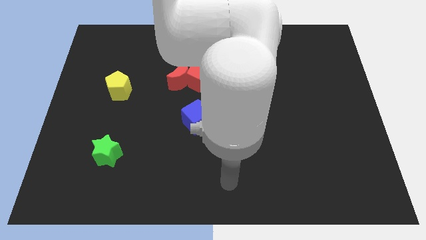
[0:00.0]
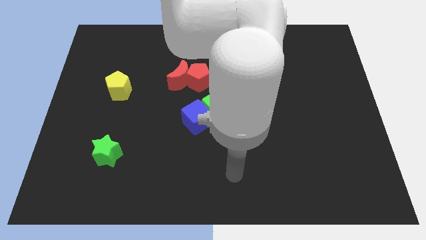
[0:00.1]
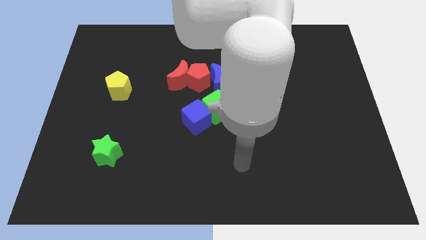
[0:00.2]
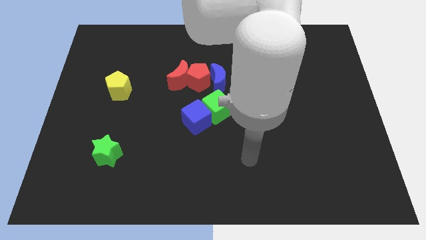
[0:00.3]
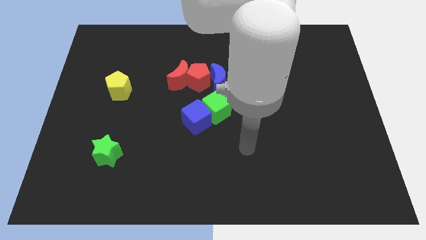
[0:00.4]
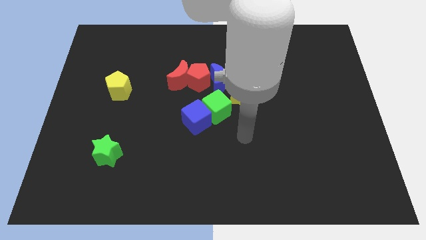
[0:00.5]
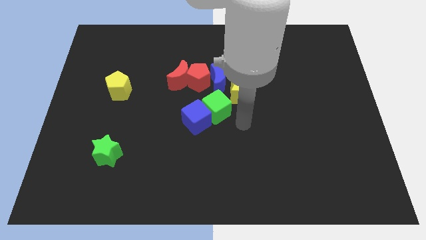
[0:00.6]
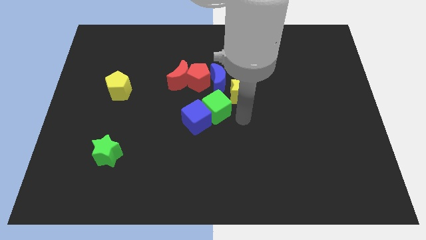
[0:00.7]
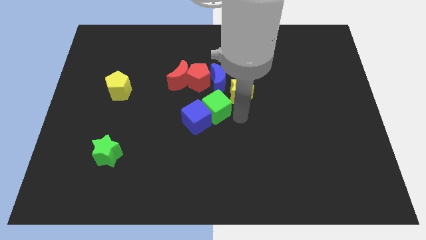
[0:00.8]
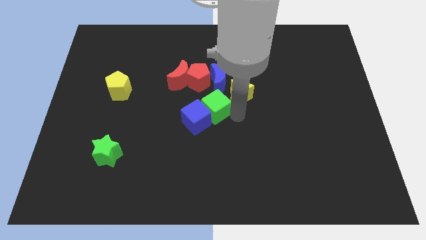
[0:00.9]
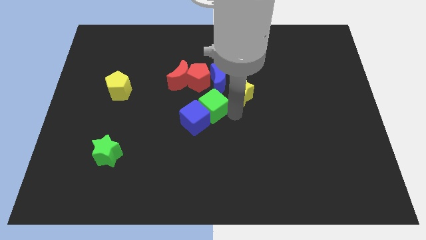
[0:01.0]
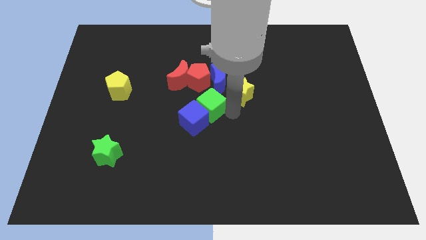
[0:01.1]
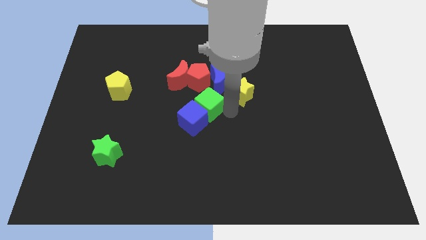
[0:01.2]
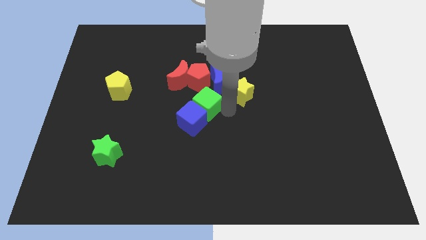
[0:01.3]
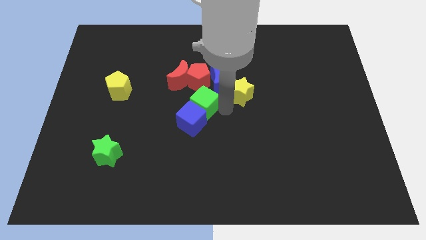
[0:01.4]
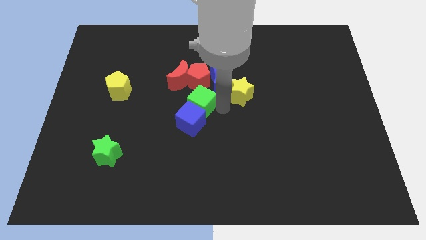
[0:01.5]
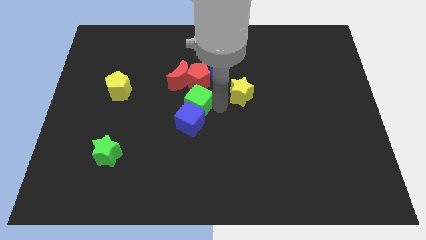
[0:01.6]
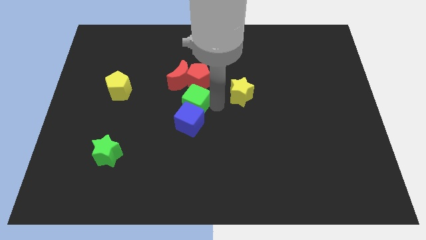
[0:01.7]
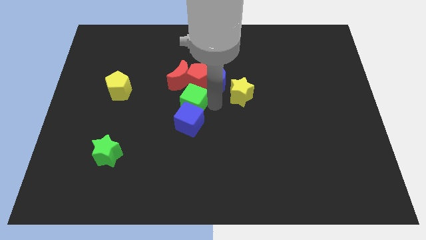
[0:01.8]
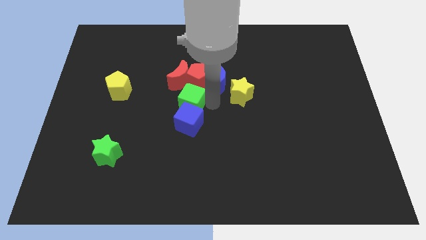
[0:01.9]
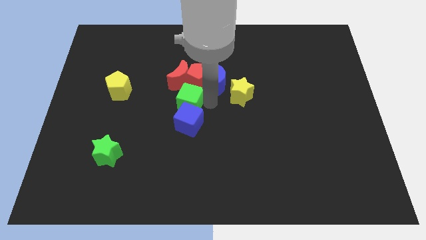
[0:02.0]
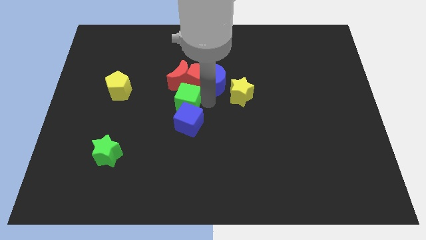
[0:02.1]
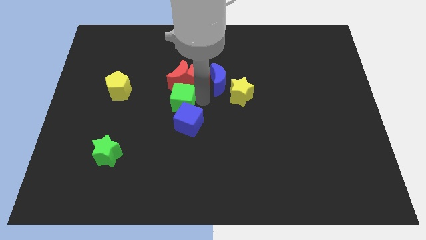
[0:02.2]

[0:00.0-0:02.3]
push the green cube a bit to the left

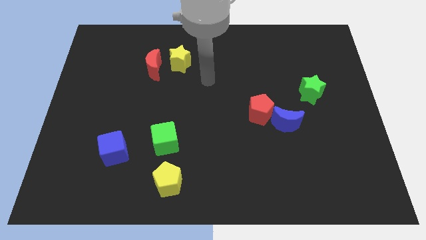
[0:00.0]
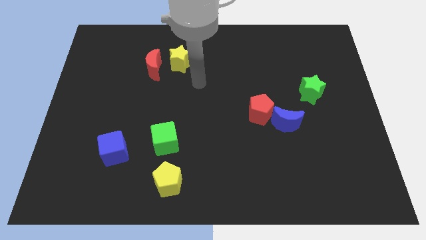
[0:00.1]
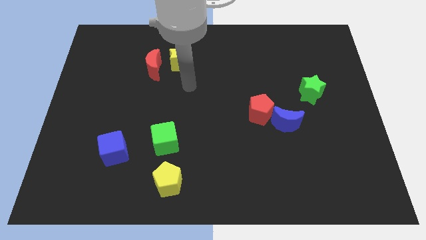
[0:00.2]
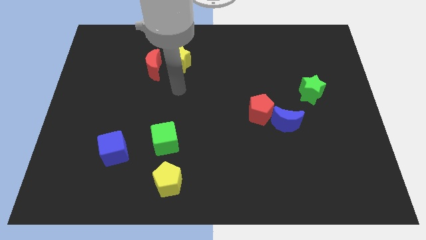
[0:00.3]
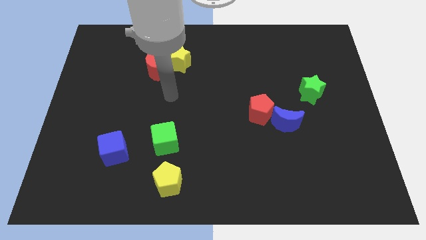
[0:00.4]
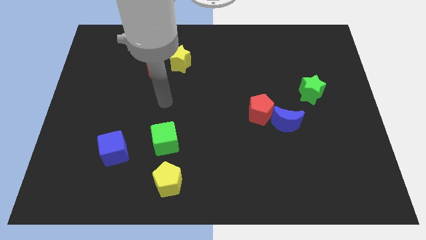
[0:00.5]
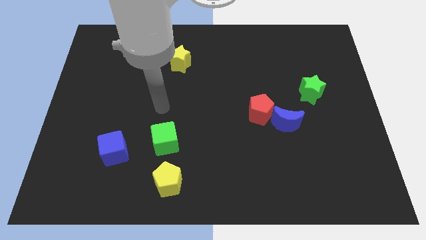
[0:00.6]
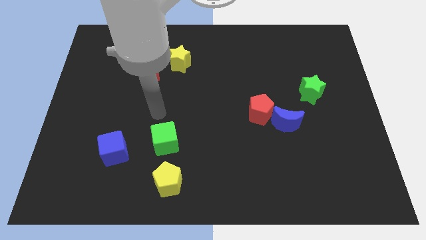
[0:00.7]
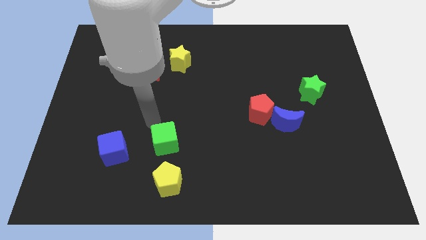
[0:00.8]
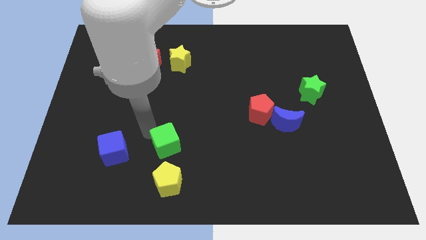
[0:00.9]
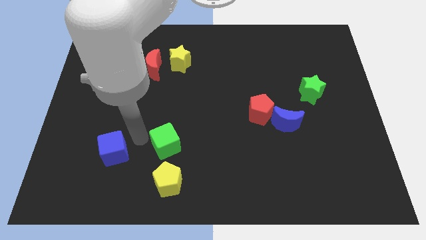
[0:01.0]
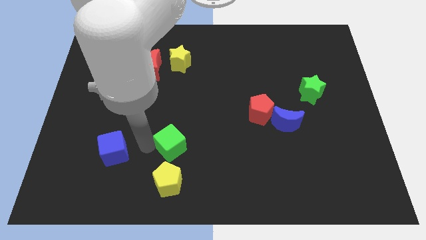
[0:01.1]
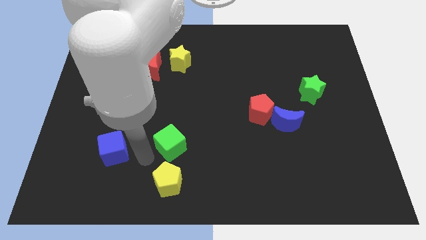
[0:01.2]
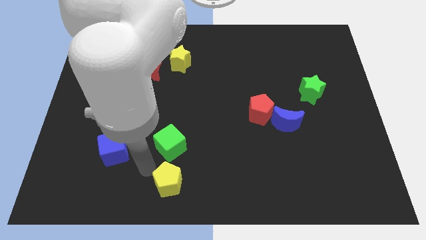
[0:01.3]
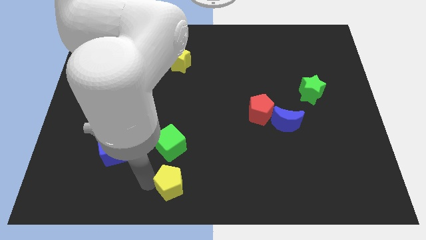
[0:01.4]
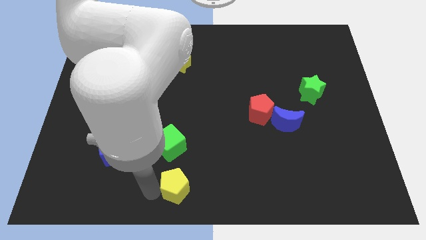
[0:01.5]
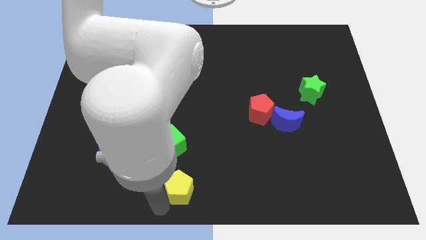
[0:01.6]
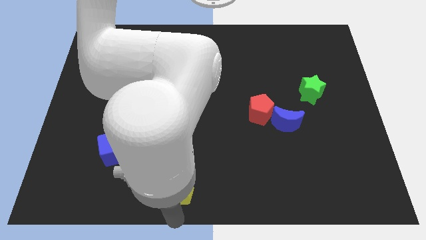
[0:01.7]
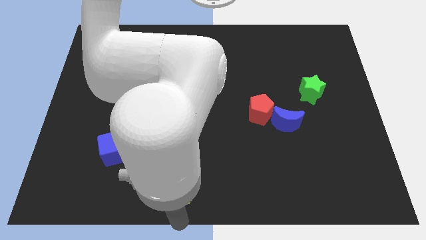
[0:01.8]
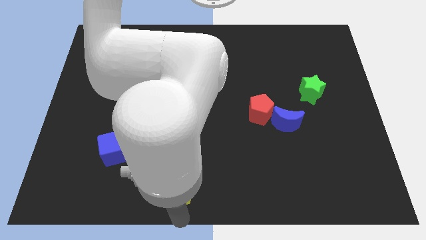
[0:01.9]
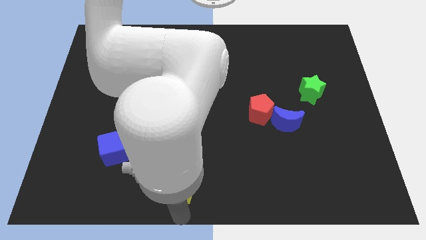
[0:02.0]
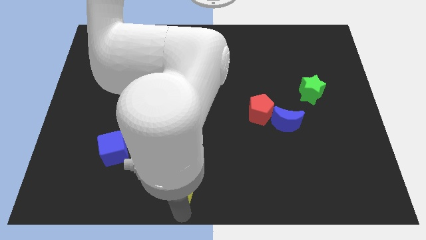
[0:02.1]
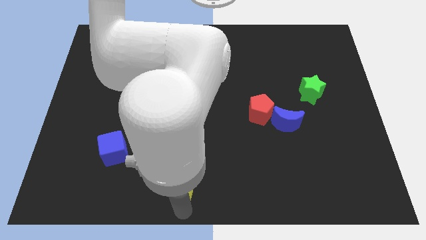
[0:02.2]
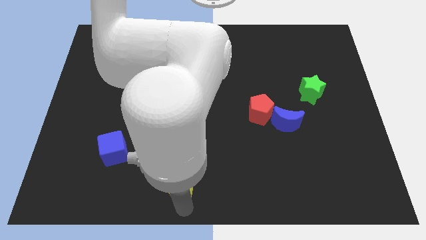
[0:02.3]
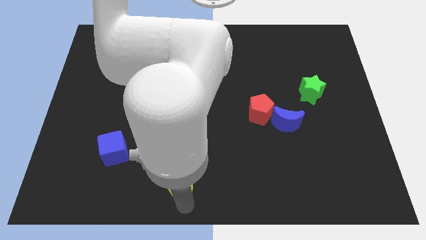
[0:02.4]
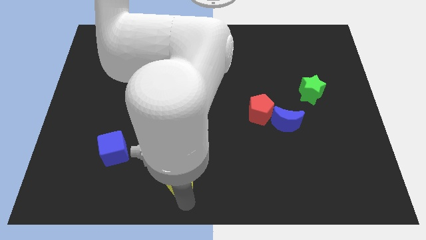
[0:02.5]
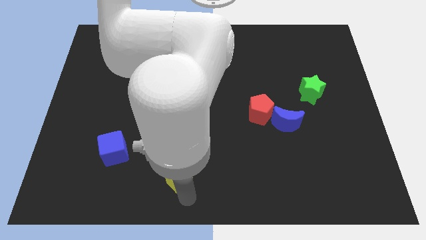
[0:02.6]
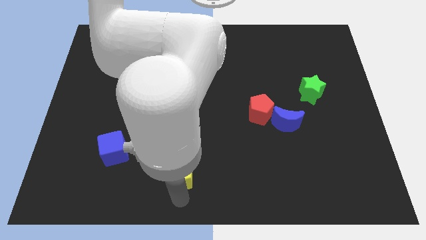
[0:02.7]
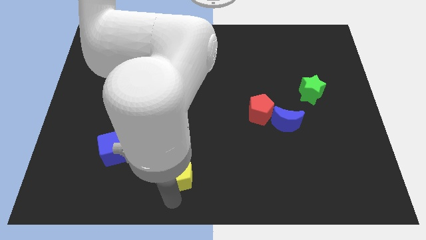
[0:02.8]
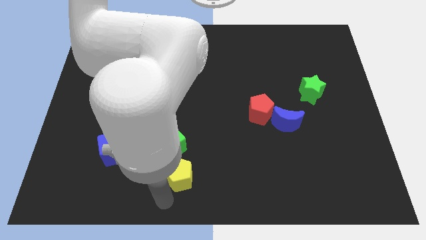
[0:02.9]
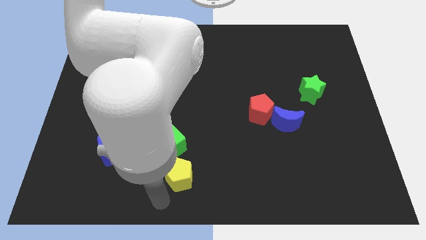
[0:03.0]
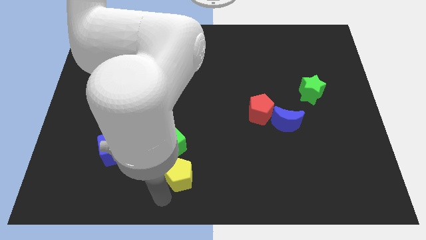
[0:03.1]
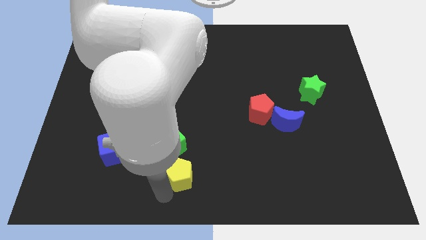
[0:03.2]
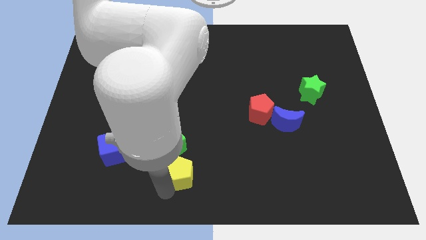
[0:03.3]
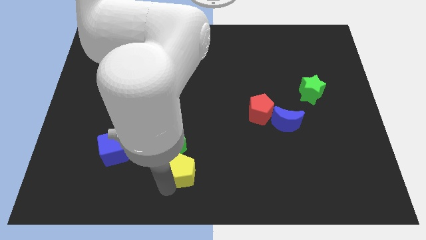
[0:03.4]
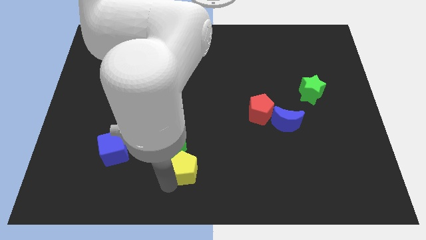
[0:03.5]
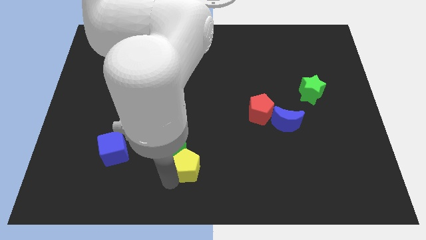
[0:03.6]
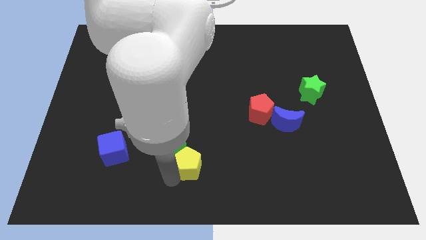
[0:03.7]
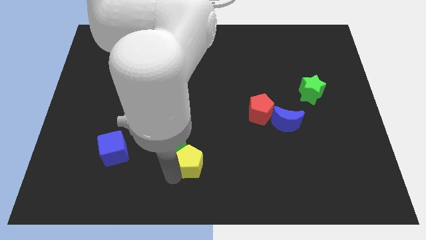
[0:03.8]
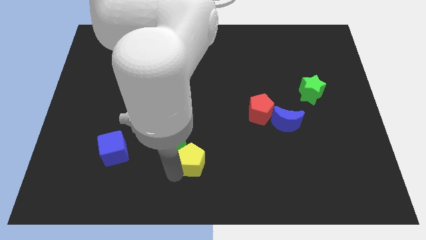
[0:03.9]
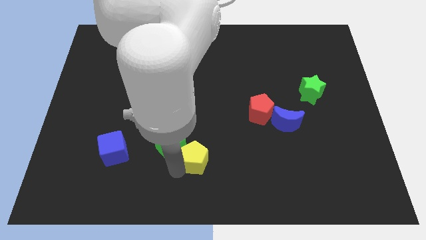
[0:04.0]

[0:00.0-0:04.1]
move the yellow pentagon up and right a bit

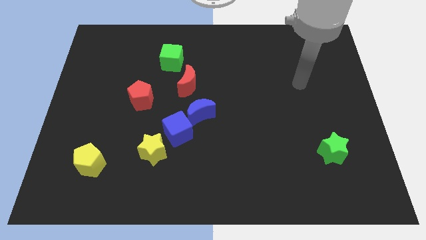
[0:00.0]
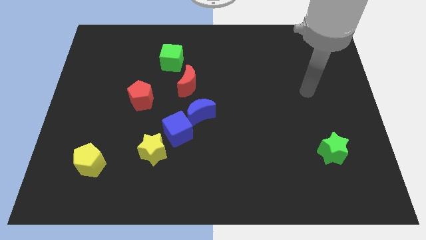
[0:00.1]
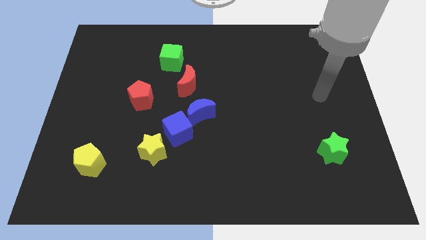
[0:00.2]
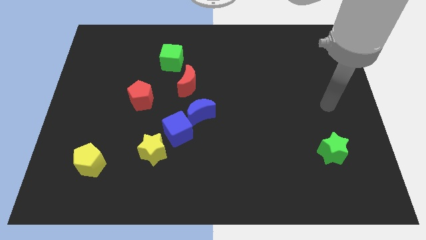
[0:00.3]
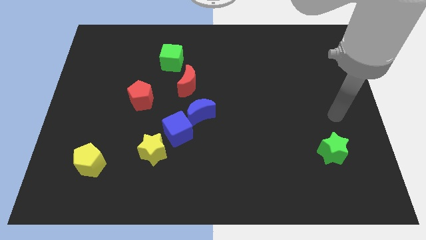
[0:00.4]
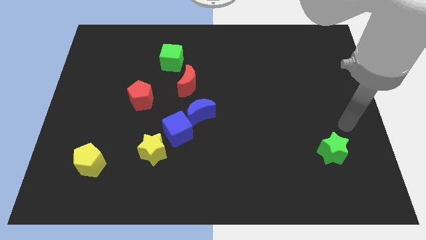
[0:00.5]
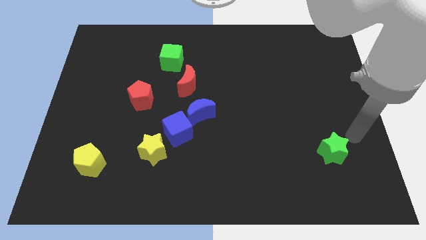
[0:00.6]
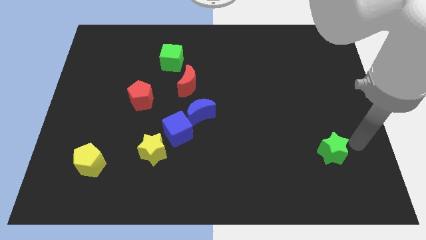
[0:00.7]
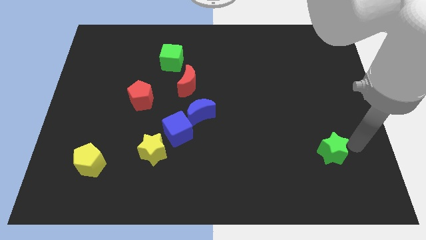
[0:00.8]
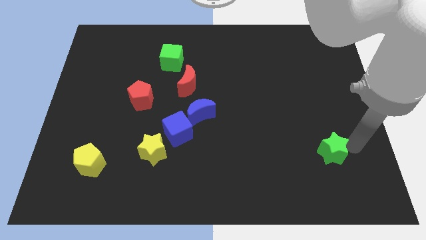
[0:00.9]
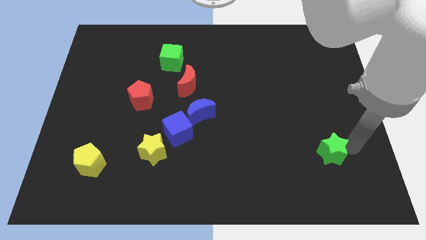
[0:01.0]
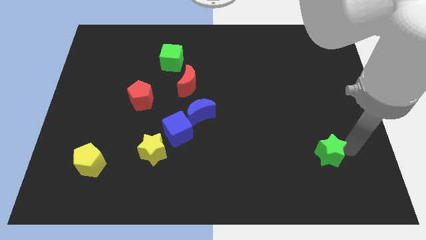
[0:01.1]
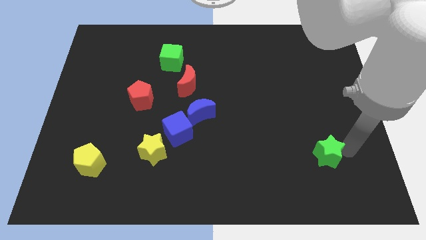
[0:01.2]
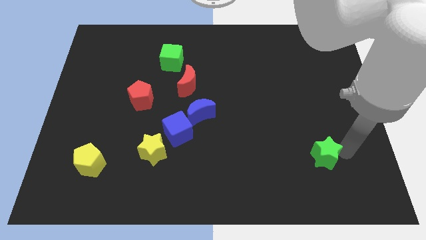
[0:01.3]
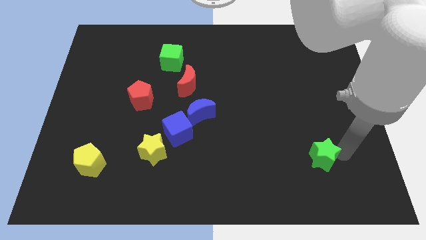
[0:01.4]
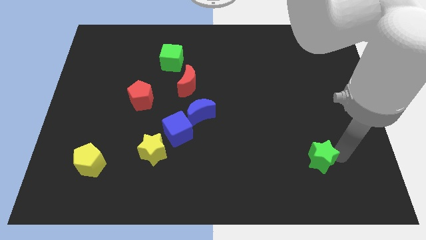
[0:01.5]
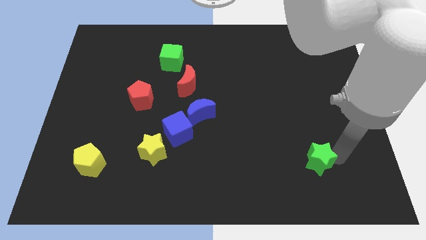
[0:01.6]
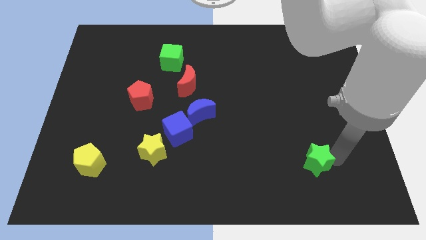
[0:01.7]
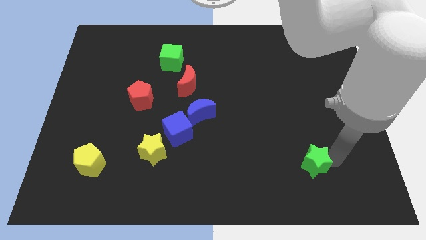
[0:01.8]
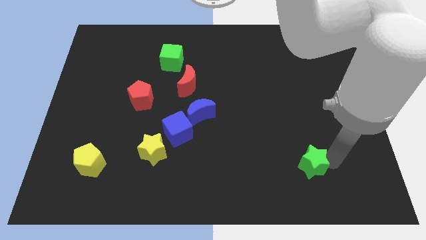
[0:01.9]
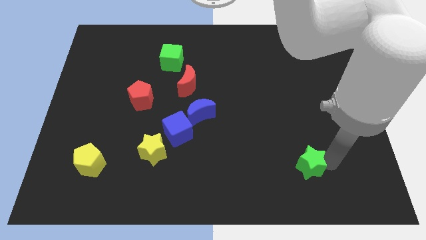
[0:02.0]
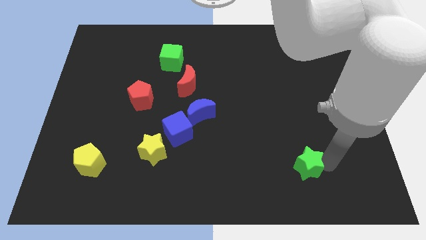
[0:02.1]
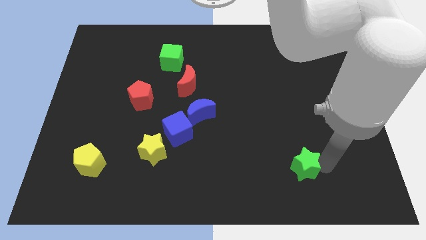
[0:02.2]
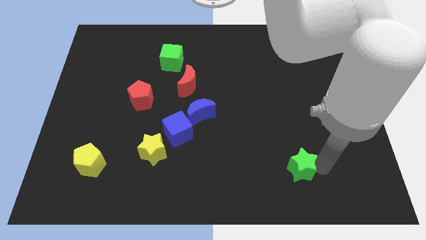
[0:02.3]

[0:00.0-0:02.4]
move the green star a little left
